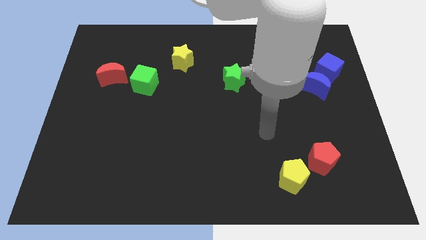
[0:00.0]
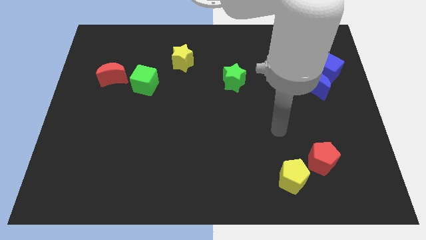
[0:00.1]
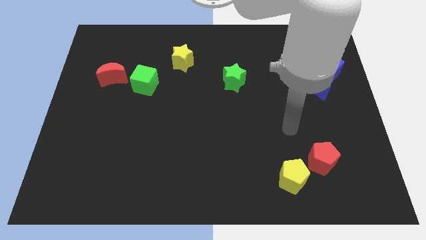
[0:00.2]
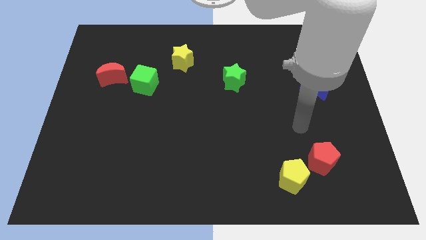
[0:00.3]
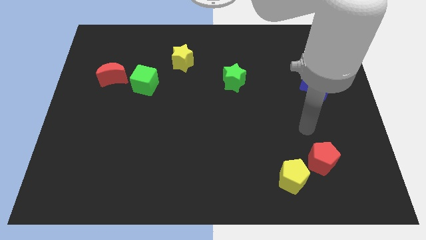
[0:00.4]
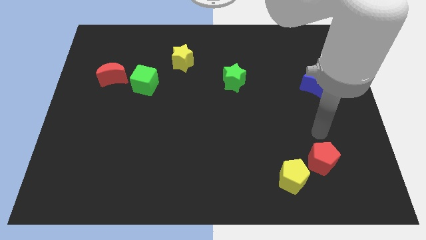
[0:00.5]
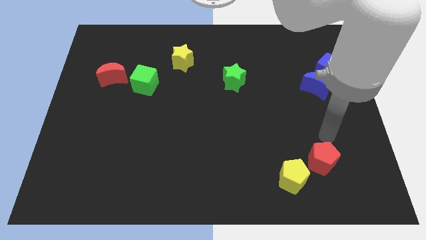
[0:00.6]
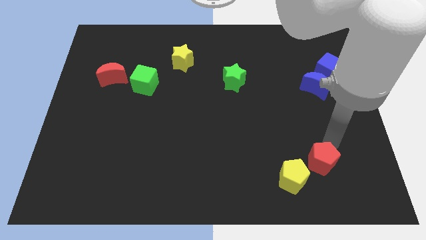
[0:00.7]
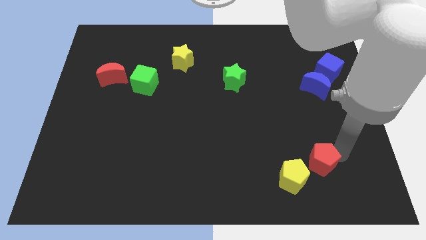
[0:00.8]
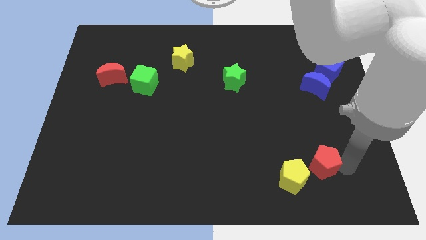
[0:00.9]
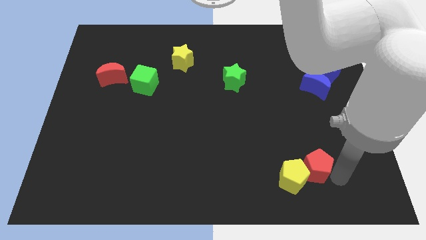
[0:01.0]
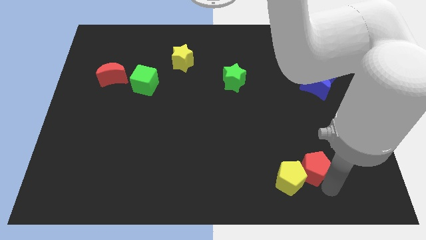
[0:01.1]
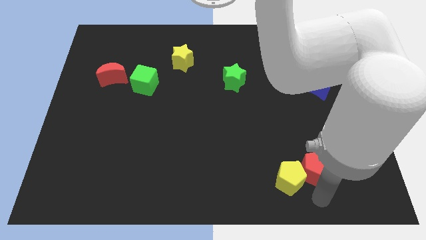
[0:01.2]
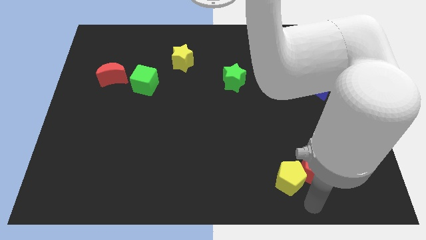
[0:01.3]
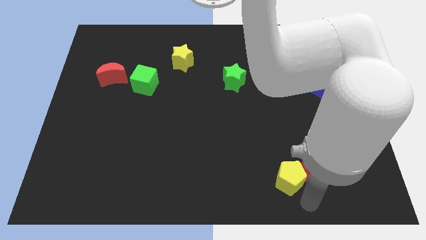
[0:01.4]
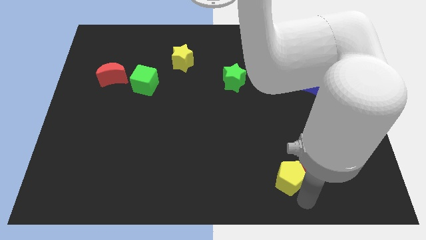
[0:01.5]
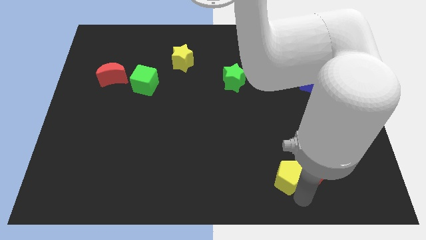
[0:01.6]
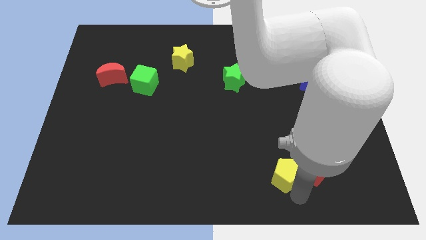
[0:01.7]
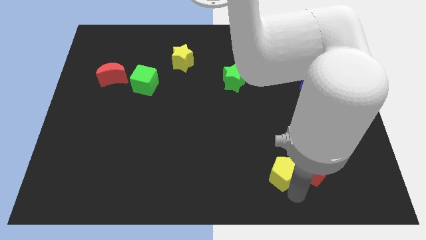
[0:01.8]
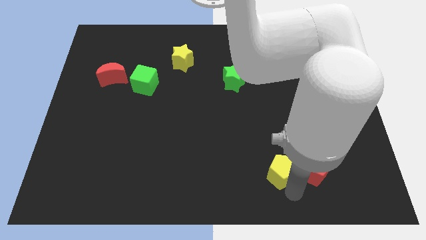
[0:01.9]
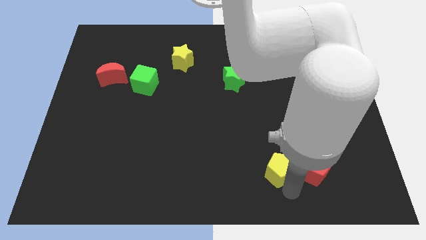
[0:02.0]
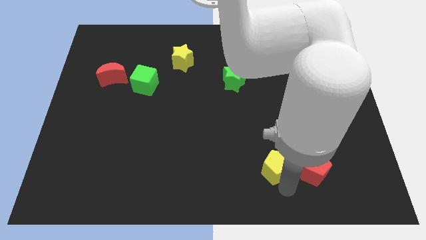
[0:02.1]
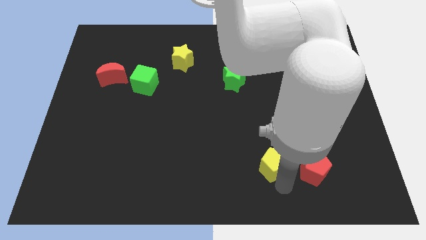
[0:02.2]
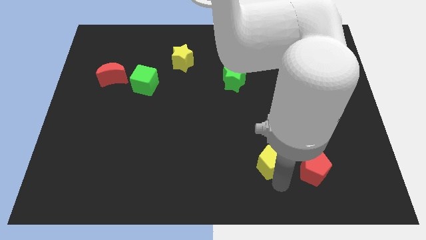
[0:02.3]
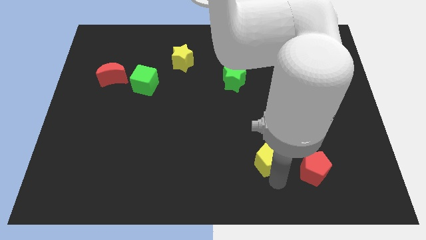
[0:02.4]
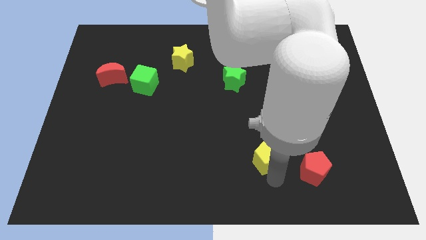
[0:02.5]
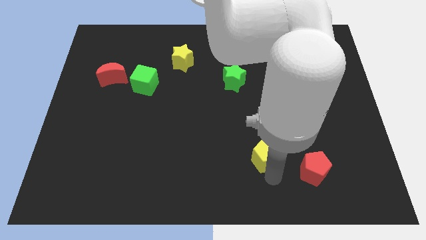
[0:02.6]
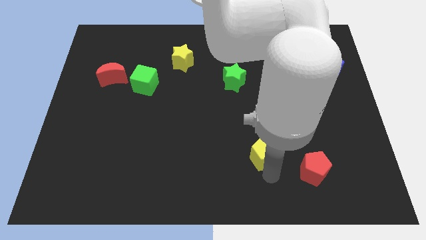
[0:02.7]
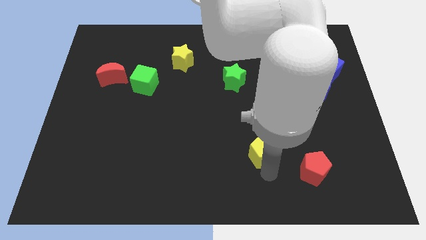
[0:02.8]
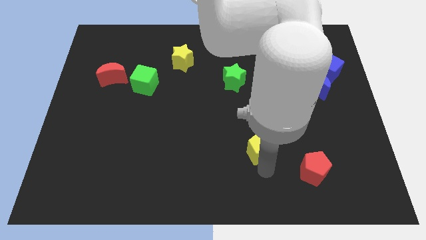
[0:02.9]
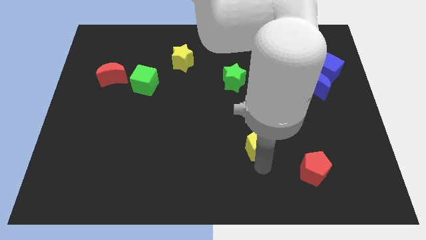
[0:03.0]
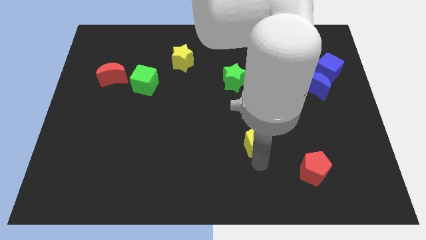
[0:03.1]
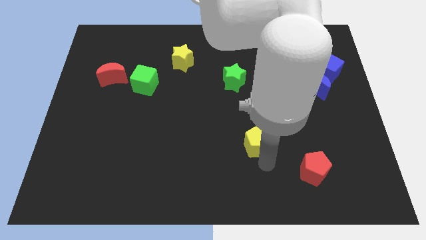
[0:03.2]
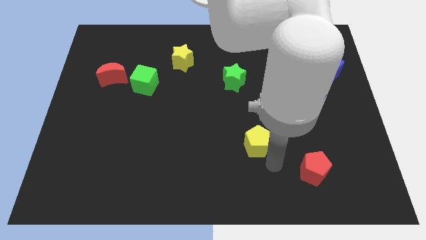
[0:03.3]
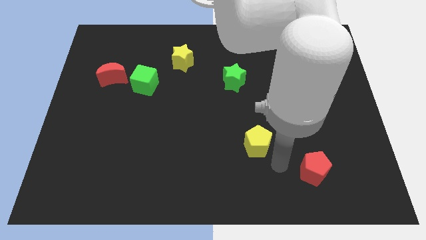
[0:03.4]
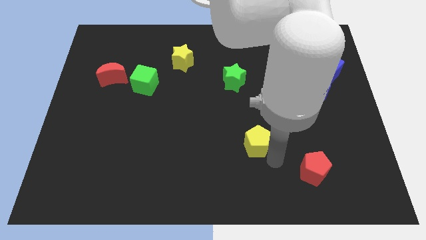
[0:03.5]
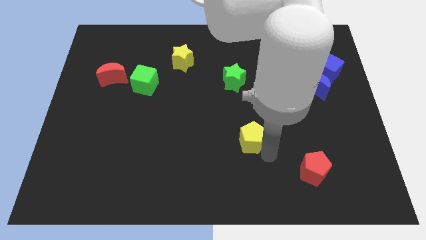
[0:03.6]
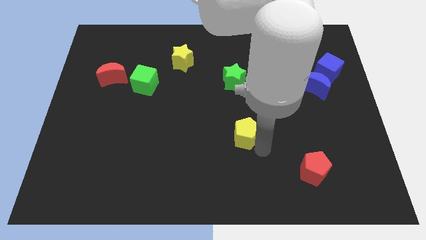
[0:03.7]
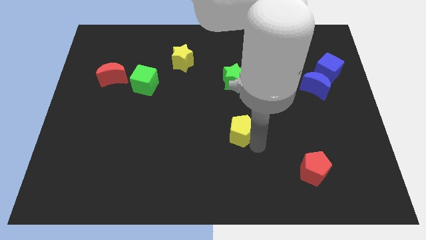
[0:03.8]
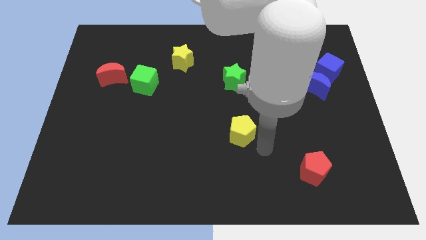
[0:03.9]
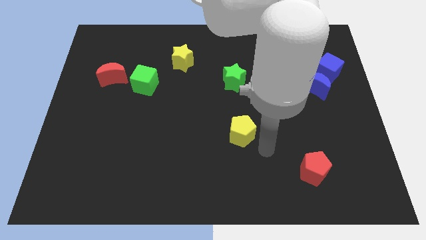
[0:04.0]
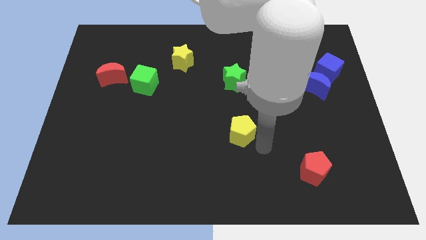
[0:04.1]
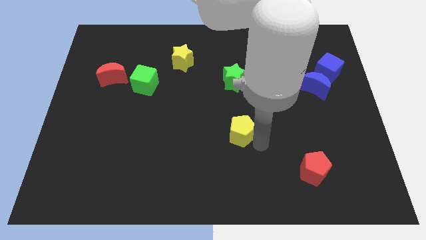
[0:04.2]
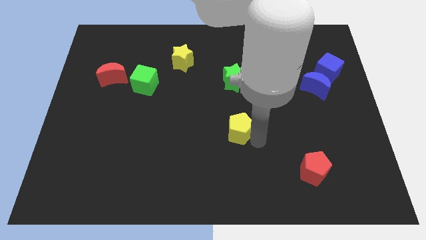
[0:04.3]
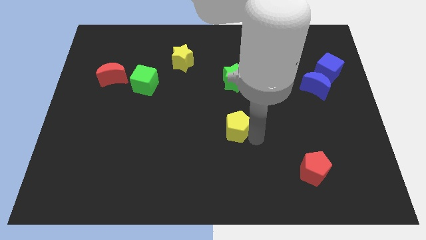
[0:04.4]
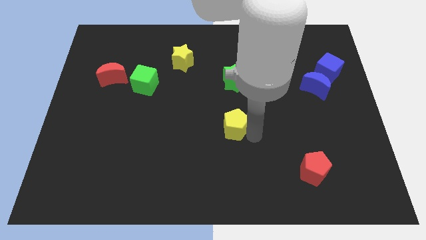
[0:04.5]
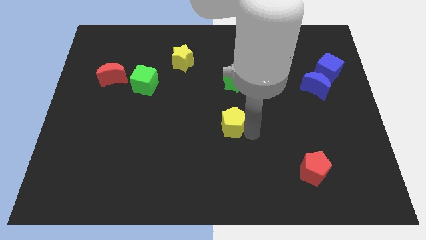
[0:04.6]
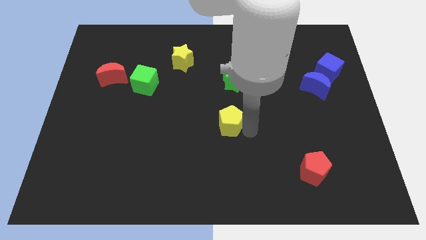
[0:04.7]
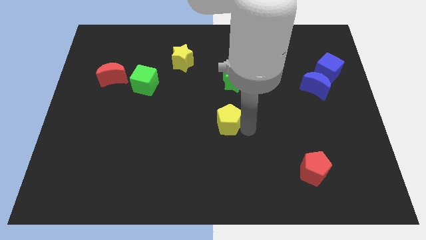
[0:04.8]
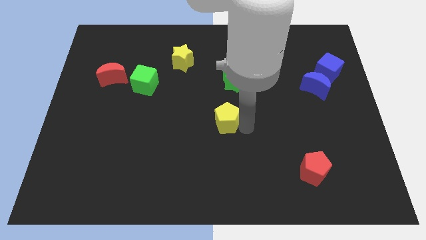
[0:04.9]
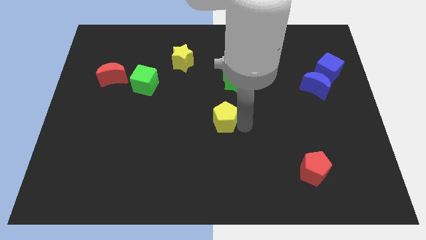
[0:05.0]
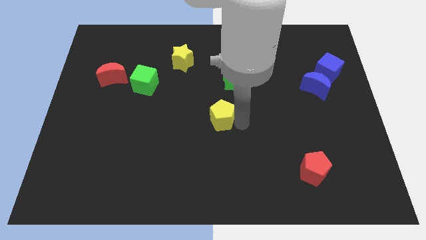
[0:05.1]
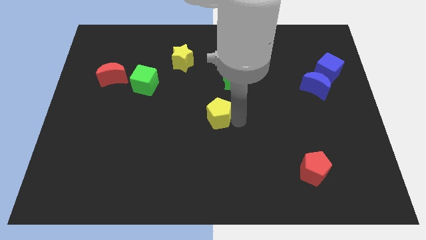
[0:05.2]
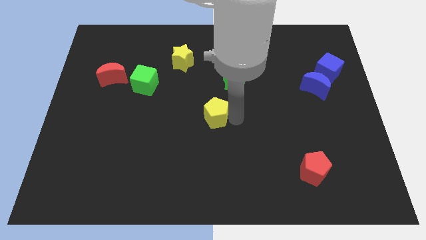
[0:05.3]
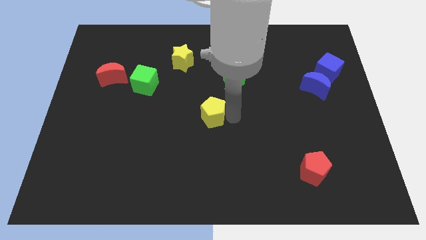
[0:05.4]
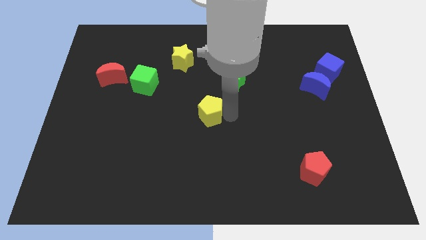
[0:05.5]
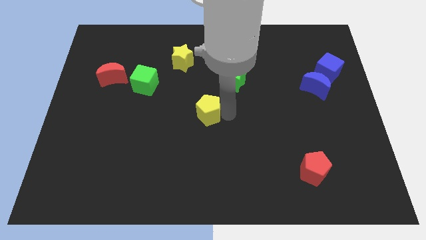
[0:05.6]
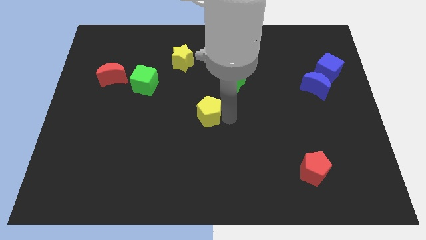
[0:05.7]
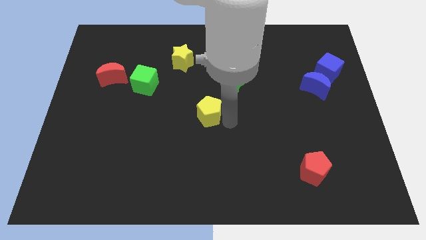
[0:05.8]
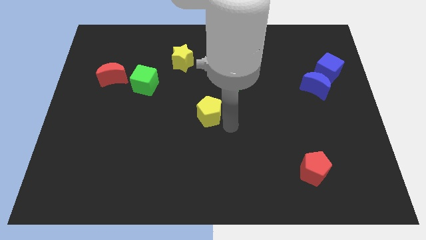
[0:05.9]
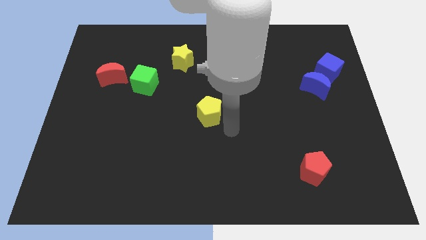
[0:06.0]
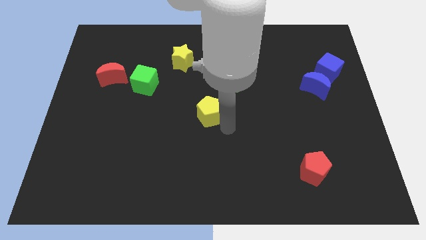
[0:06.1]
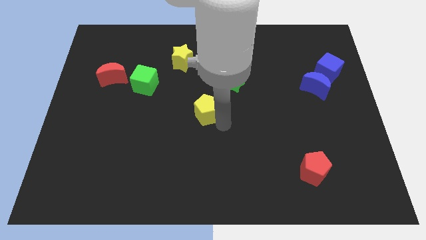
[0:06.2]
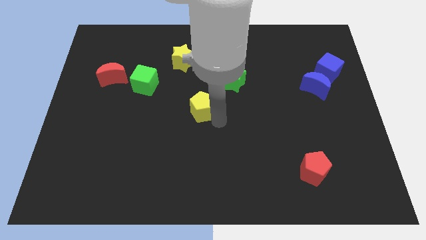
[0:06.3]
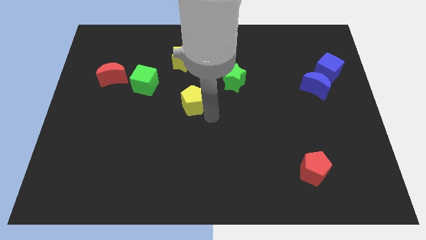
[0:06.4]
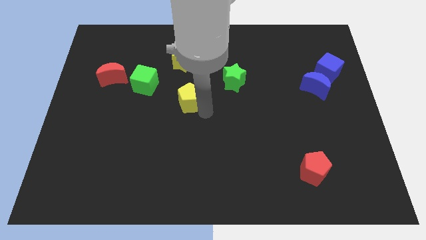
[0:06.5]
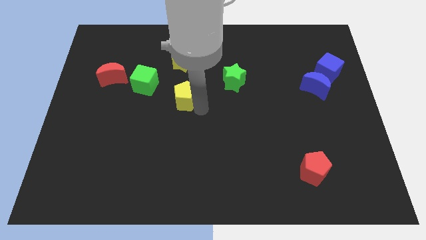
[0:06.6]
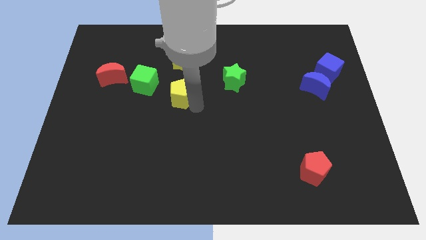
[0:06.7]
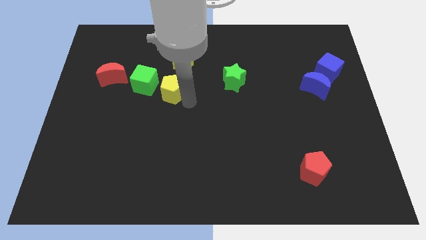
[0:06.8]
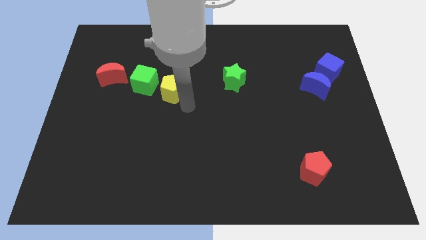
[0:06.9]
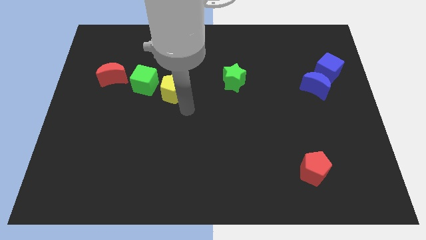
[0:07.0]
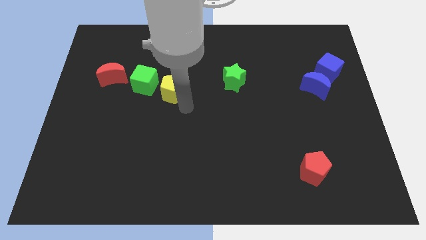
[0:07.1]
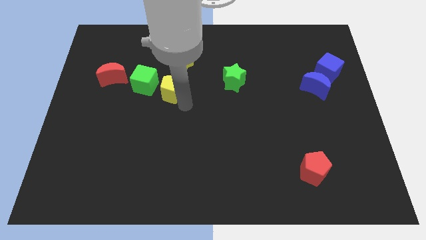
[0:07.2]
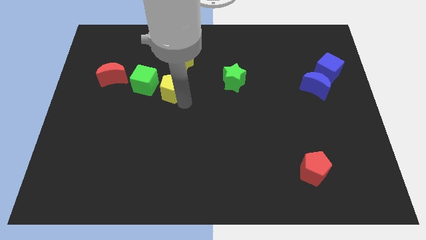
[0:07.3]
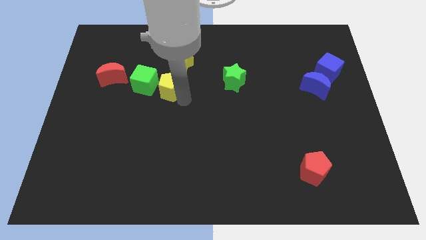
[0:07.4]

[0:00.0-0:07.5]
put the yellow pentagon diagonally down and to the left of the yellow star
